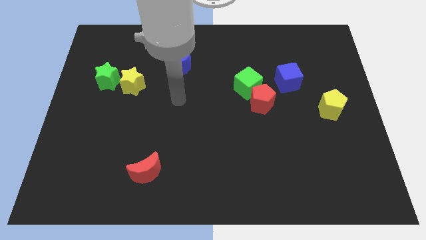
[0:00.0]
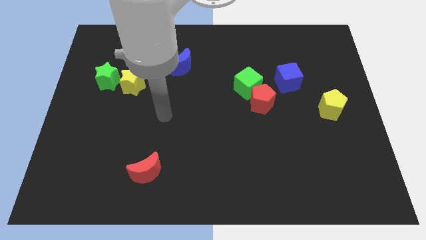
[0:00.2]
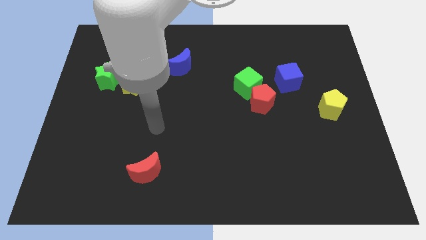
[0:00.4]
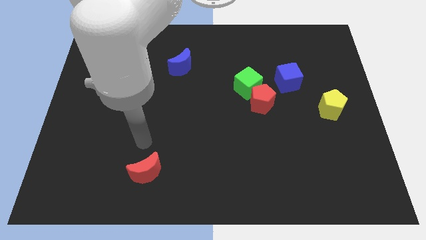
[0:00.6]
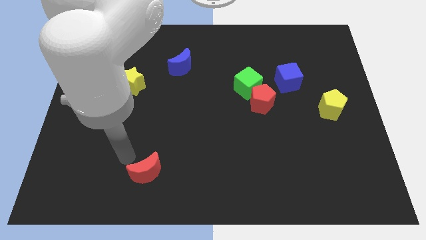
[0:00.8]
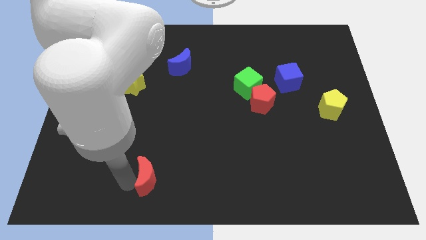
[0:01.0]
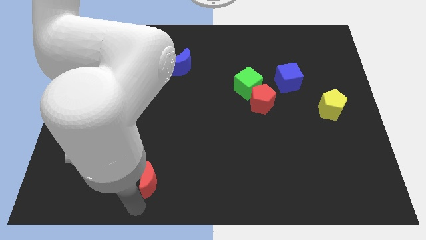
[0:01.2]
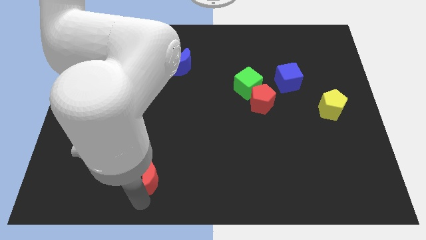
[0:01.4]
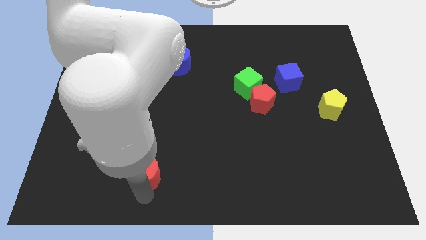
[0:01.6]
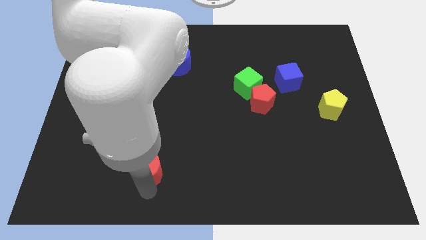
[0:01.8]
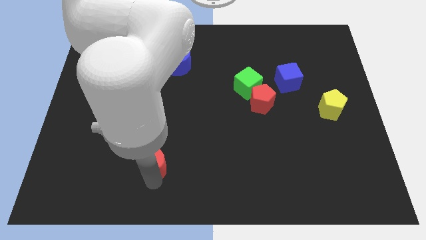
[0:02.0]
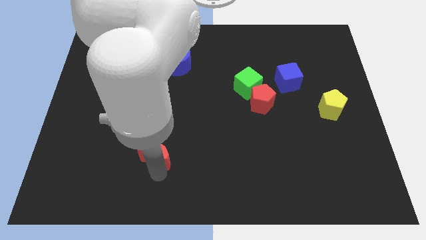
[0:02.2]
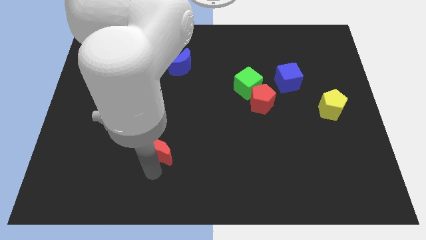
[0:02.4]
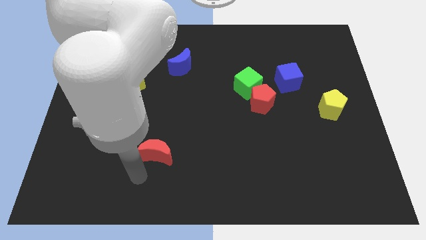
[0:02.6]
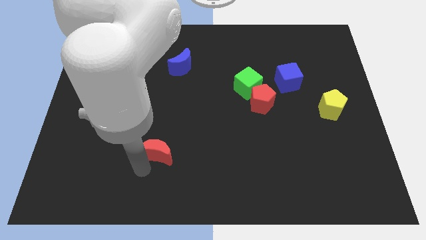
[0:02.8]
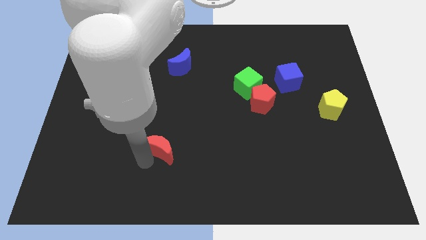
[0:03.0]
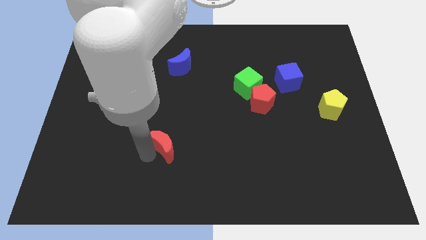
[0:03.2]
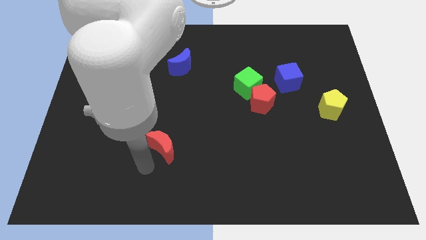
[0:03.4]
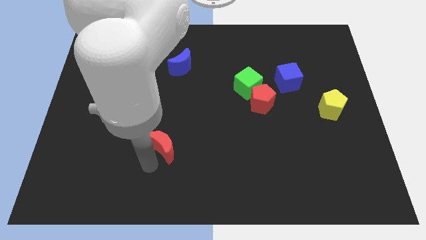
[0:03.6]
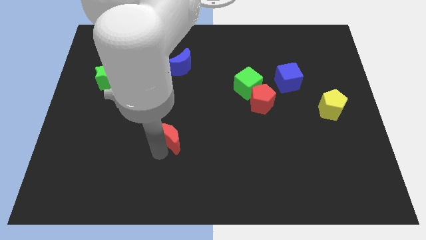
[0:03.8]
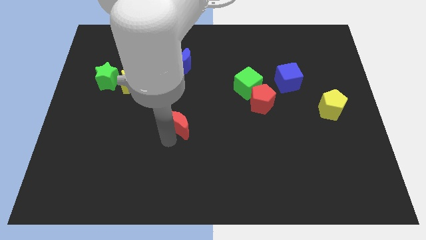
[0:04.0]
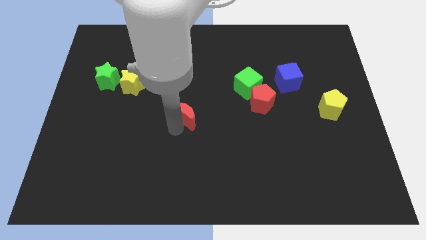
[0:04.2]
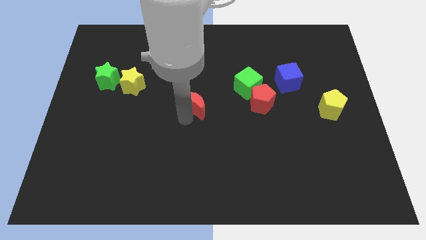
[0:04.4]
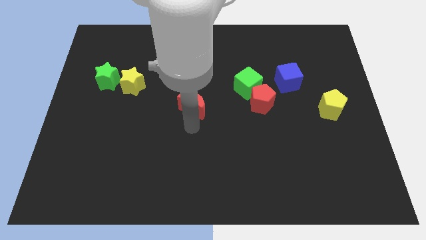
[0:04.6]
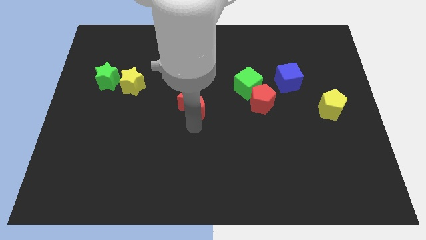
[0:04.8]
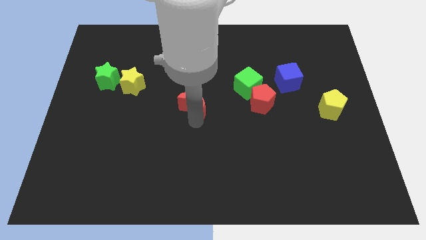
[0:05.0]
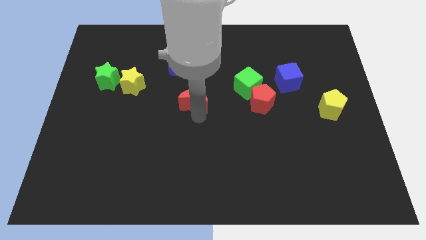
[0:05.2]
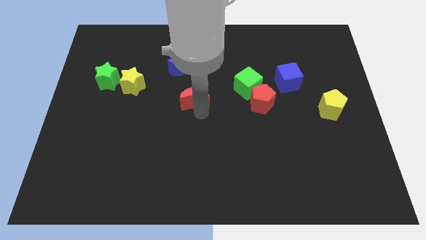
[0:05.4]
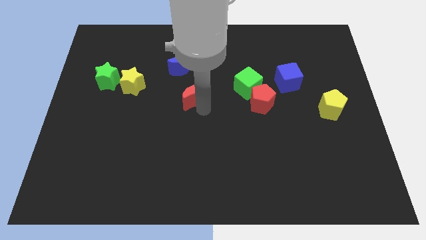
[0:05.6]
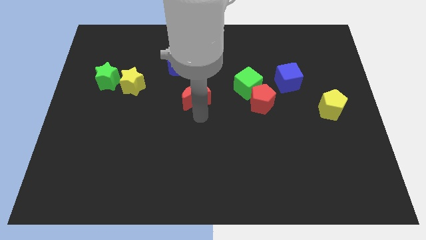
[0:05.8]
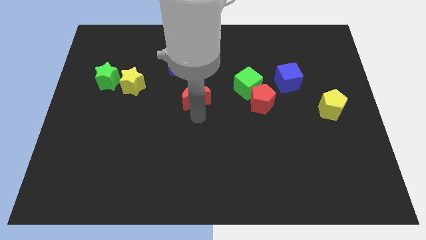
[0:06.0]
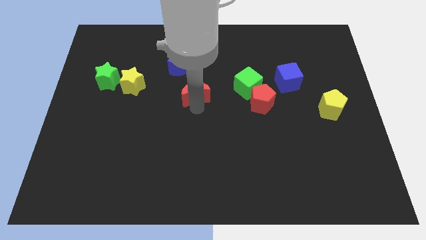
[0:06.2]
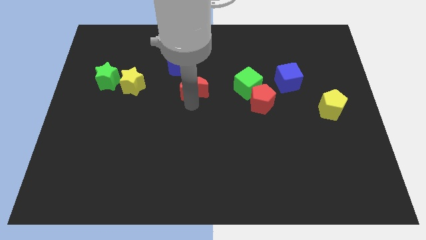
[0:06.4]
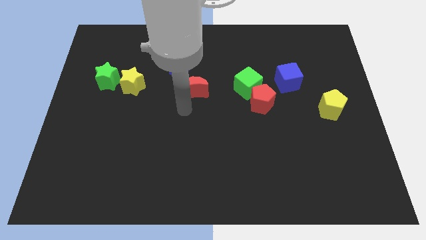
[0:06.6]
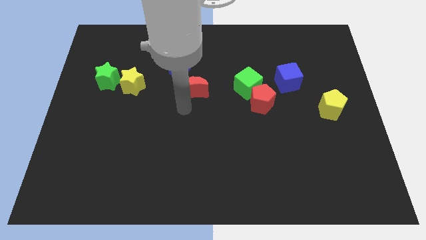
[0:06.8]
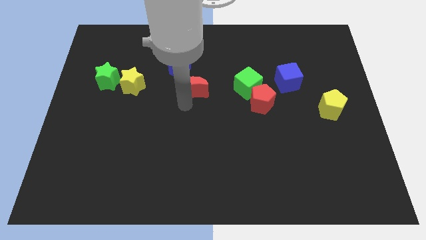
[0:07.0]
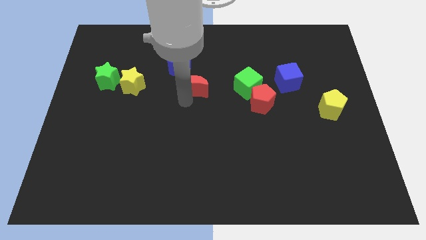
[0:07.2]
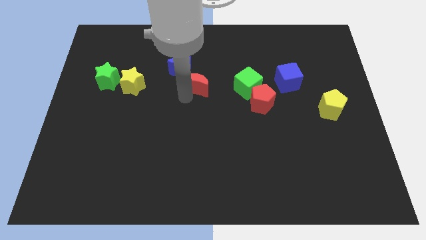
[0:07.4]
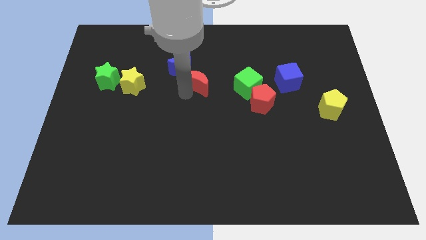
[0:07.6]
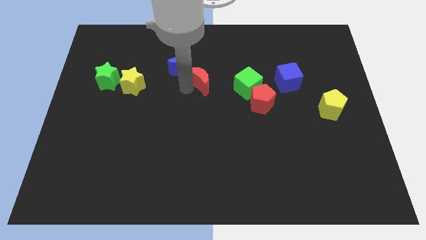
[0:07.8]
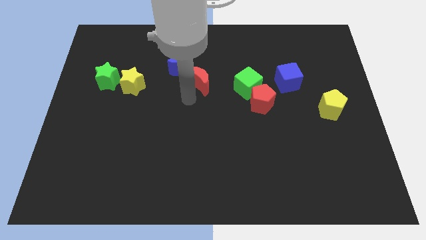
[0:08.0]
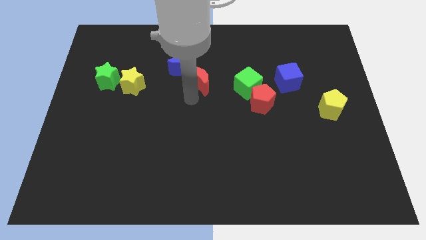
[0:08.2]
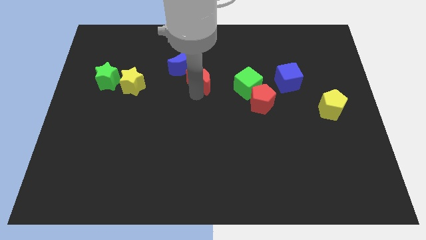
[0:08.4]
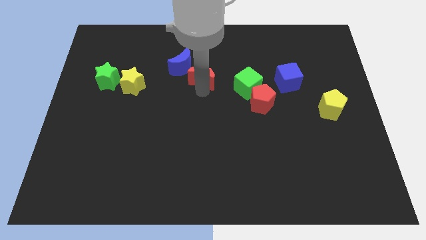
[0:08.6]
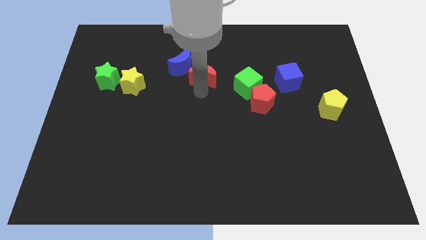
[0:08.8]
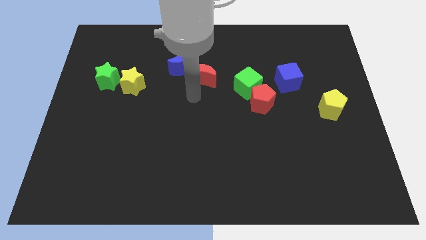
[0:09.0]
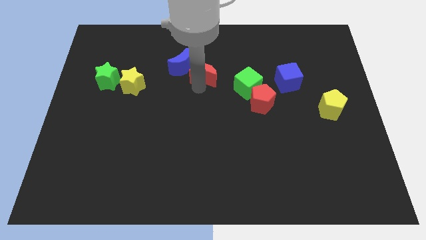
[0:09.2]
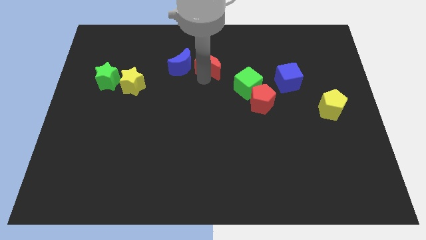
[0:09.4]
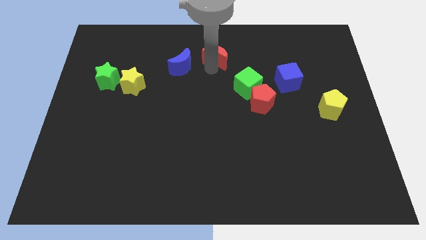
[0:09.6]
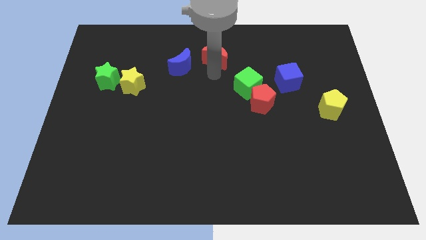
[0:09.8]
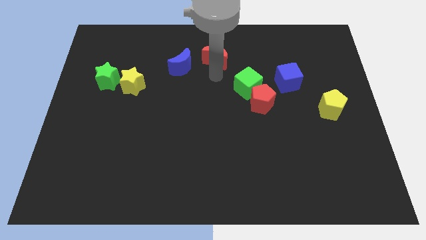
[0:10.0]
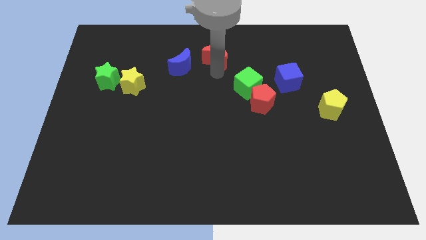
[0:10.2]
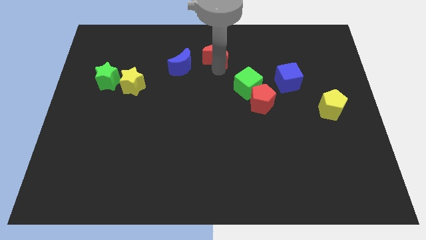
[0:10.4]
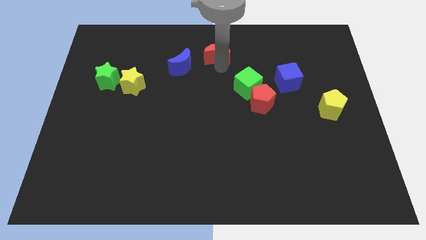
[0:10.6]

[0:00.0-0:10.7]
move the red moon to the top

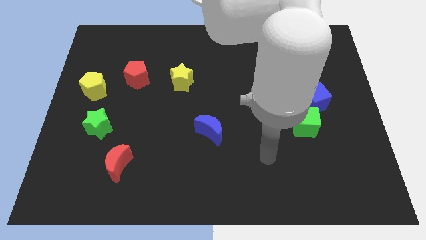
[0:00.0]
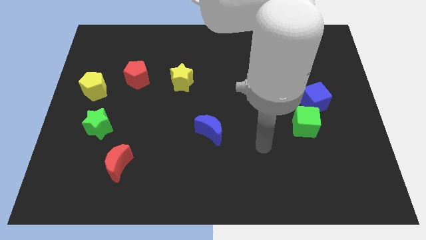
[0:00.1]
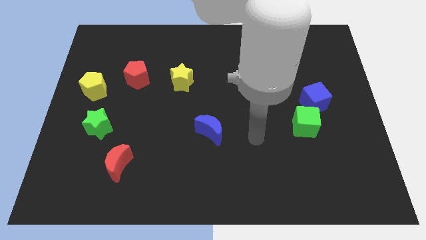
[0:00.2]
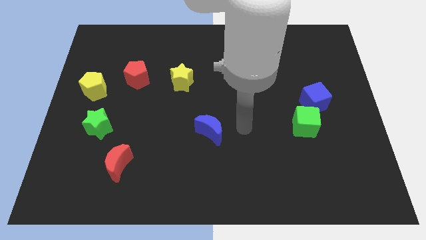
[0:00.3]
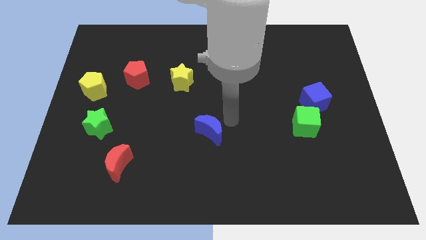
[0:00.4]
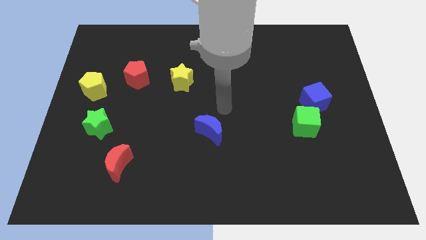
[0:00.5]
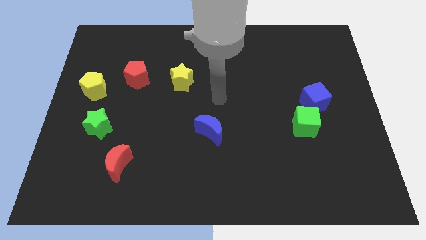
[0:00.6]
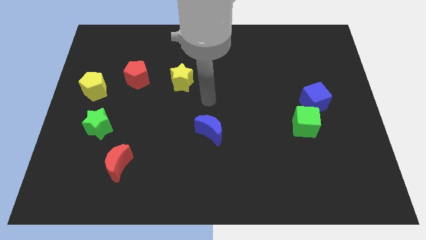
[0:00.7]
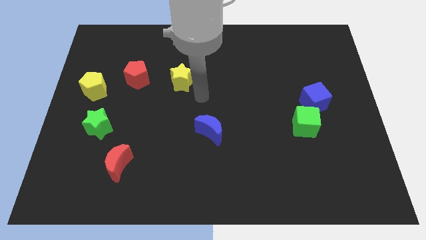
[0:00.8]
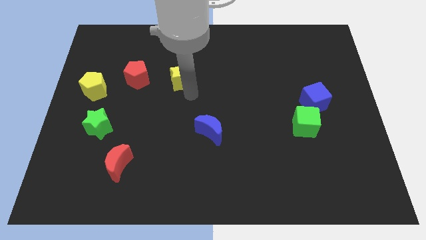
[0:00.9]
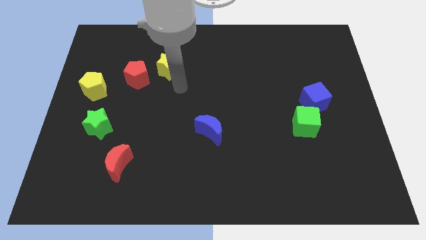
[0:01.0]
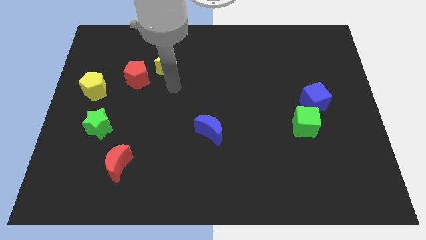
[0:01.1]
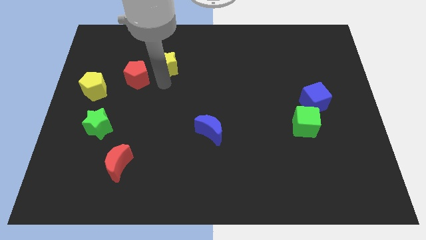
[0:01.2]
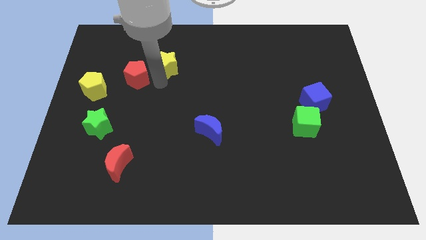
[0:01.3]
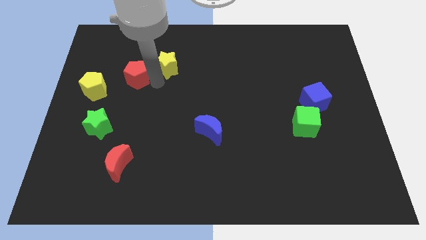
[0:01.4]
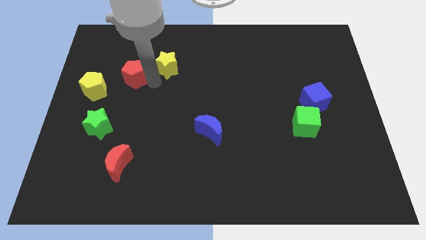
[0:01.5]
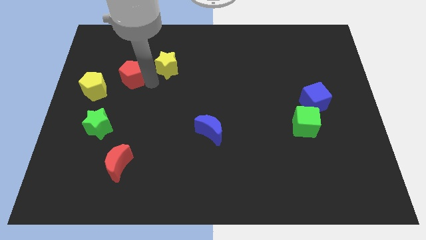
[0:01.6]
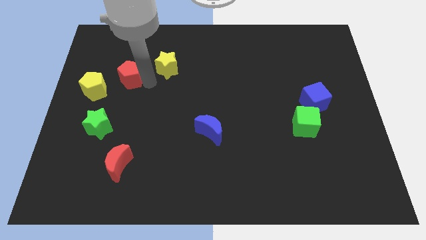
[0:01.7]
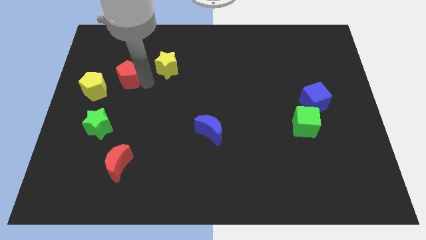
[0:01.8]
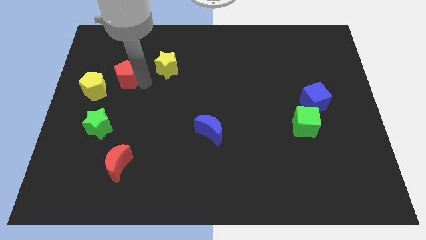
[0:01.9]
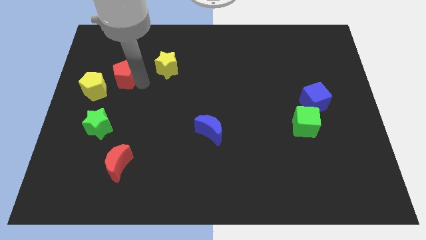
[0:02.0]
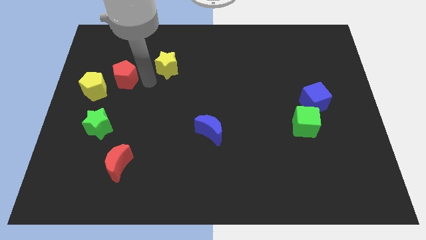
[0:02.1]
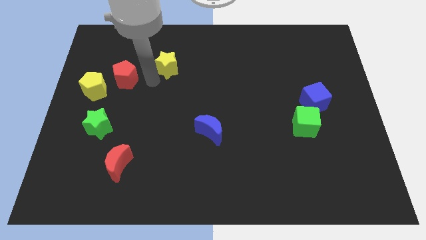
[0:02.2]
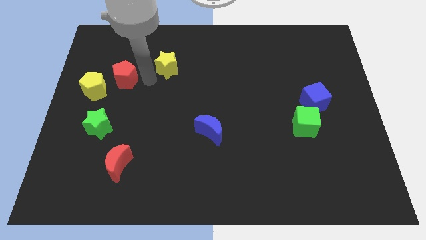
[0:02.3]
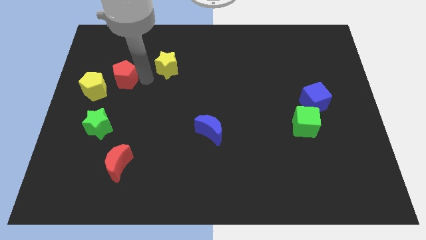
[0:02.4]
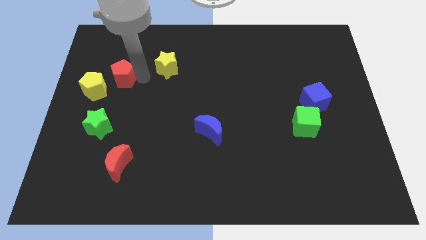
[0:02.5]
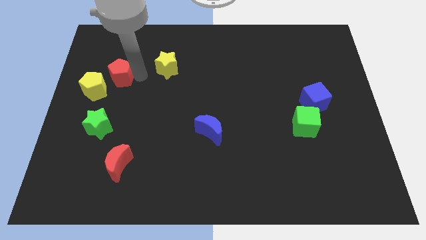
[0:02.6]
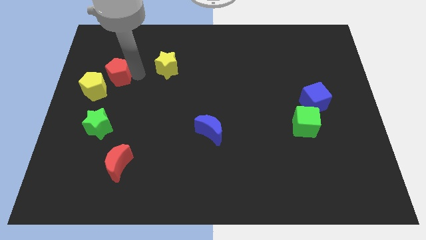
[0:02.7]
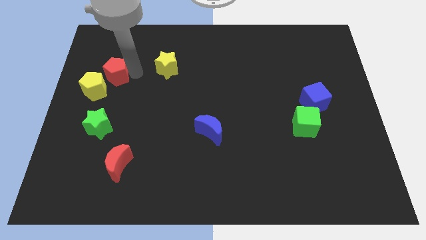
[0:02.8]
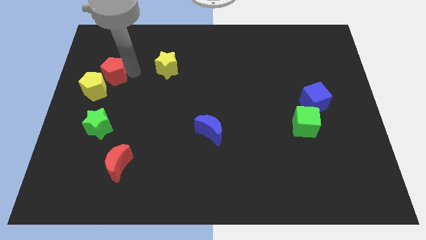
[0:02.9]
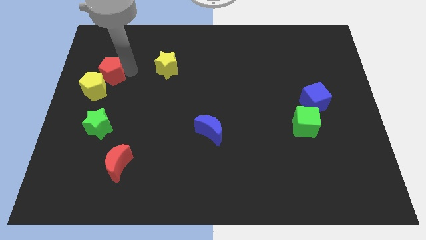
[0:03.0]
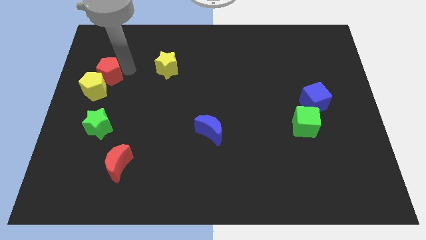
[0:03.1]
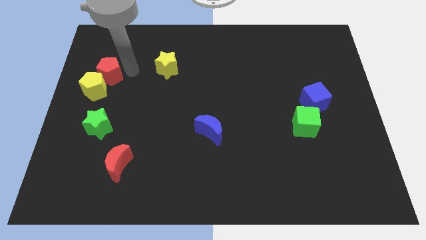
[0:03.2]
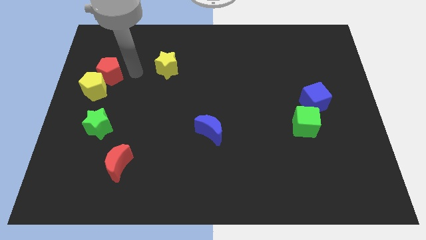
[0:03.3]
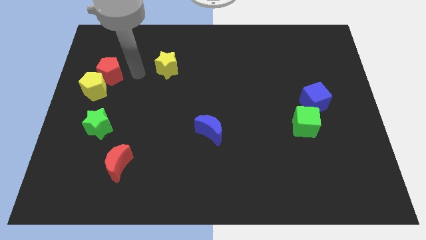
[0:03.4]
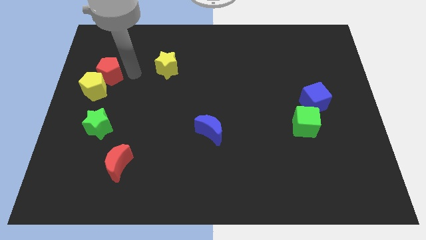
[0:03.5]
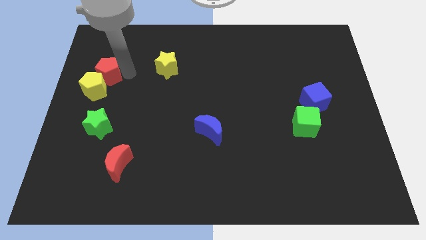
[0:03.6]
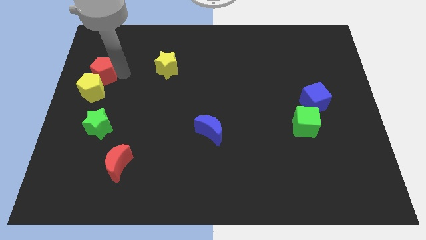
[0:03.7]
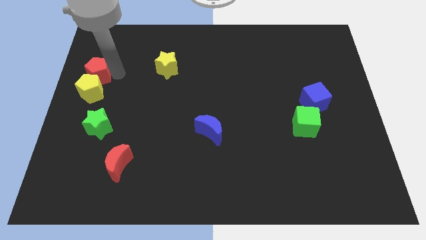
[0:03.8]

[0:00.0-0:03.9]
push the red pentagon to the center left
